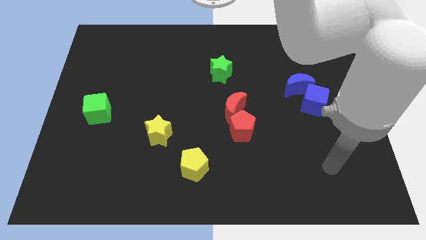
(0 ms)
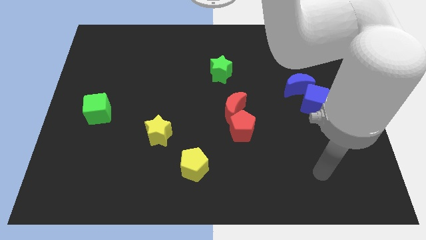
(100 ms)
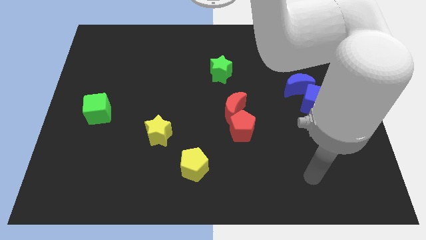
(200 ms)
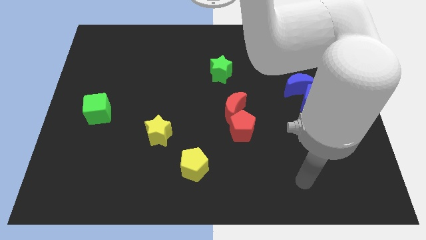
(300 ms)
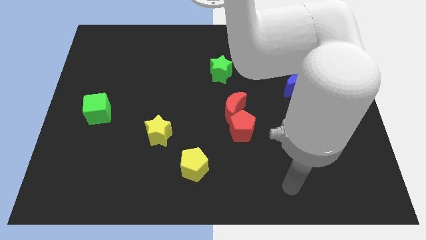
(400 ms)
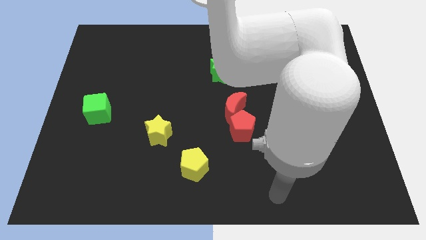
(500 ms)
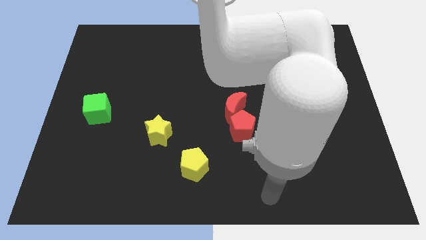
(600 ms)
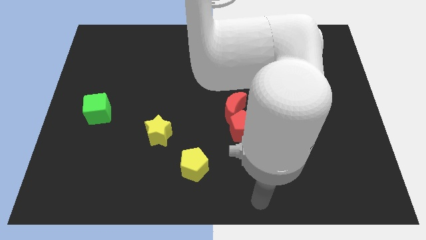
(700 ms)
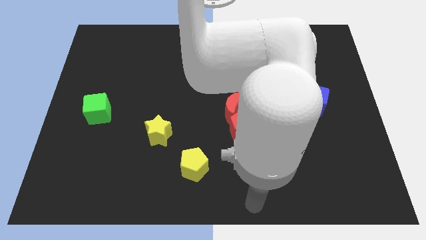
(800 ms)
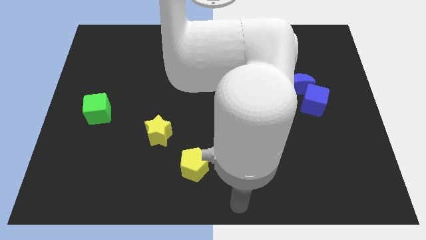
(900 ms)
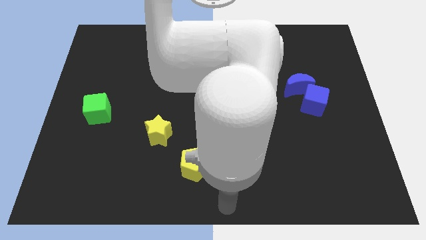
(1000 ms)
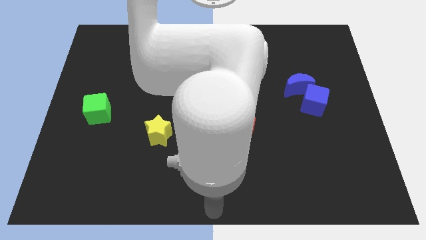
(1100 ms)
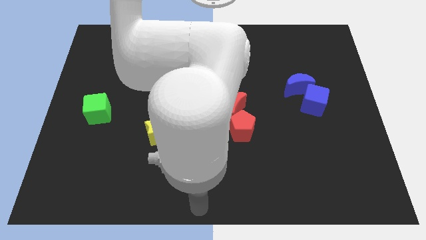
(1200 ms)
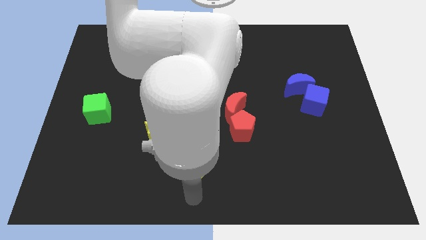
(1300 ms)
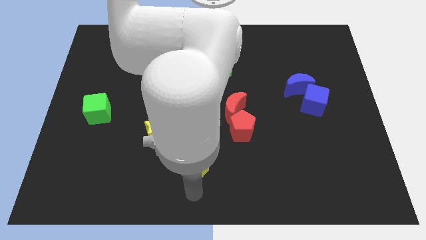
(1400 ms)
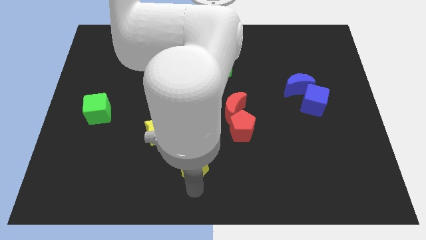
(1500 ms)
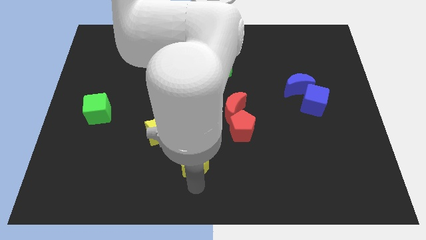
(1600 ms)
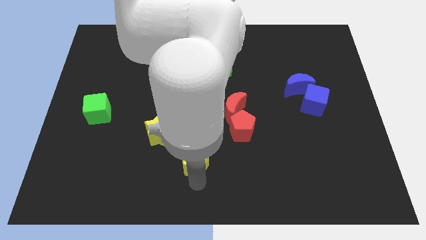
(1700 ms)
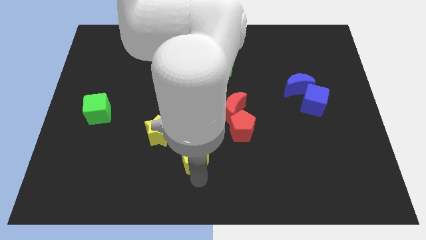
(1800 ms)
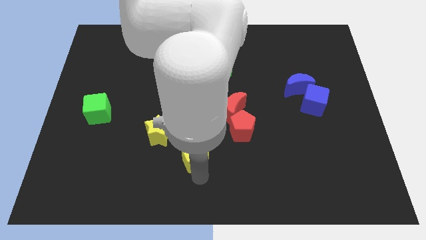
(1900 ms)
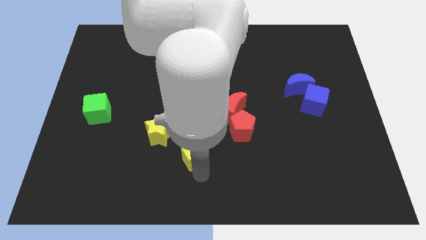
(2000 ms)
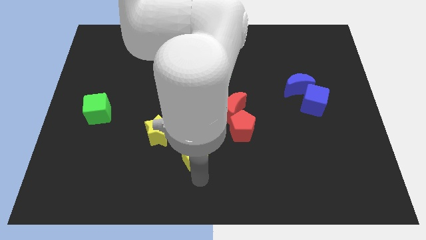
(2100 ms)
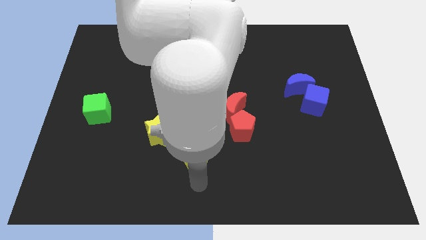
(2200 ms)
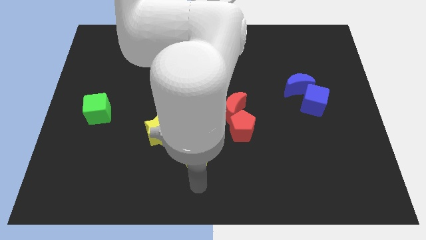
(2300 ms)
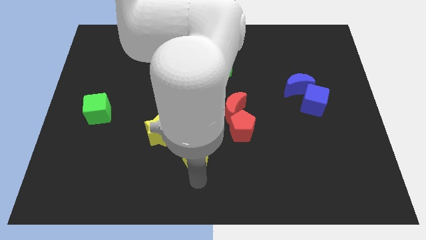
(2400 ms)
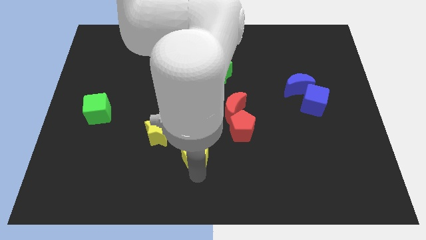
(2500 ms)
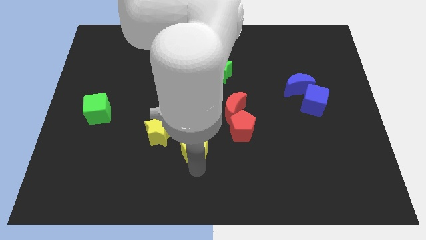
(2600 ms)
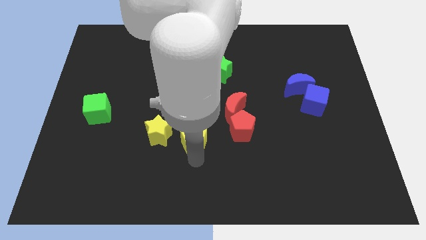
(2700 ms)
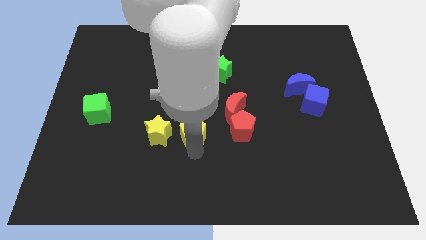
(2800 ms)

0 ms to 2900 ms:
slide the yellow pentagon a bit upwards

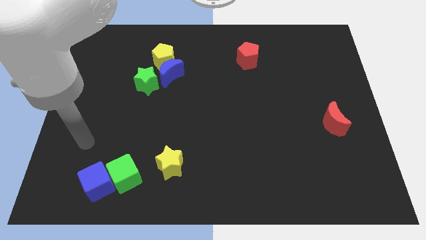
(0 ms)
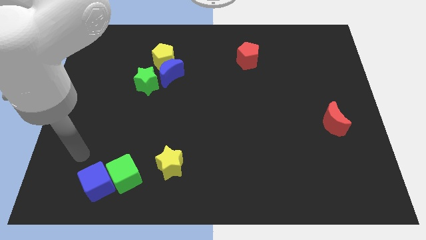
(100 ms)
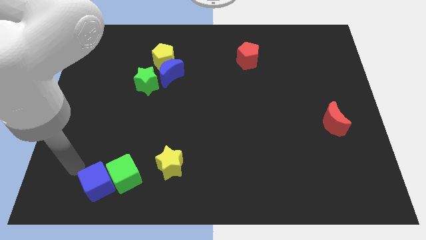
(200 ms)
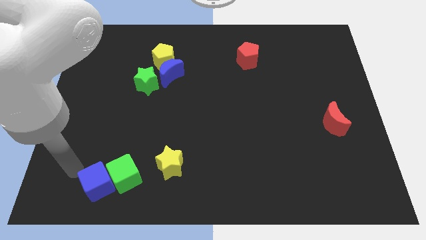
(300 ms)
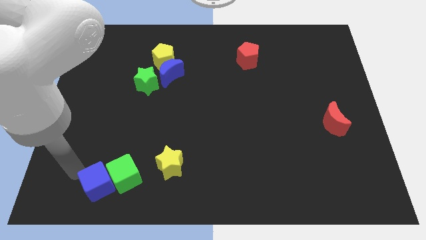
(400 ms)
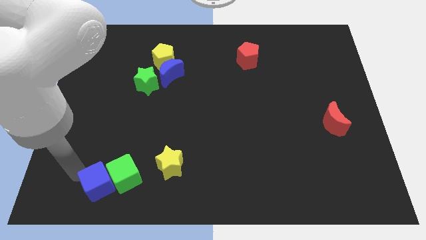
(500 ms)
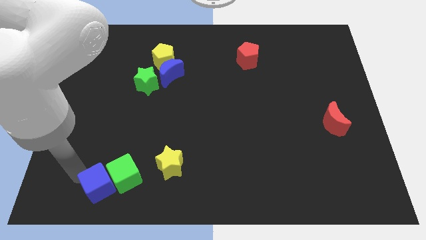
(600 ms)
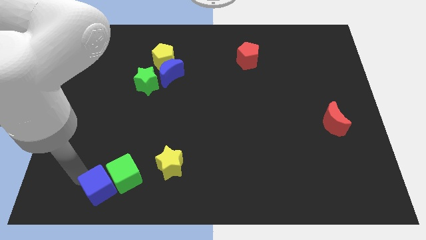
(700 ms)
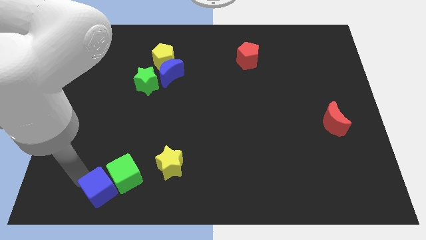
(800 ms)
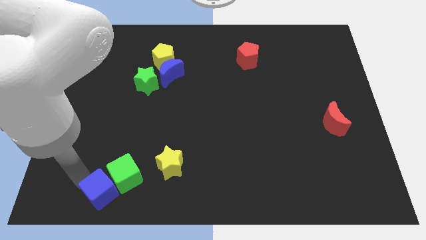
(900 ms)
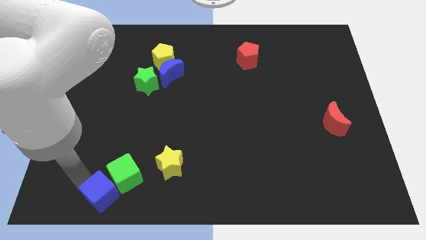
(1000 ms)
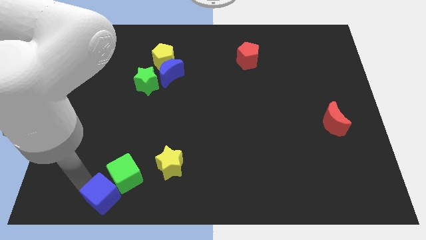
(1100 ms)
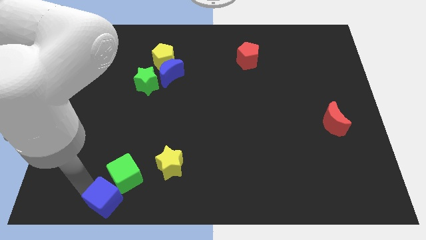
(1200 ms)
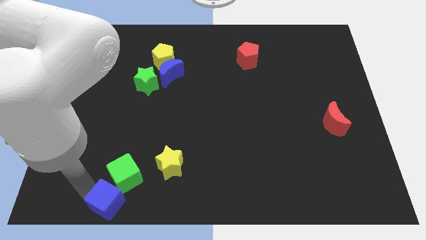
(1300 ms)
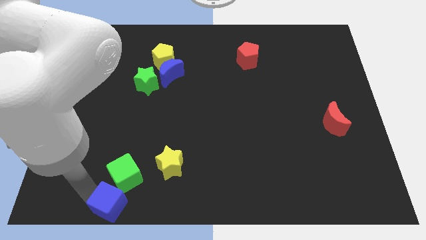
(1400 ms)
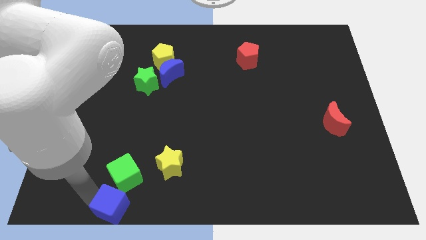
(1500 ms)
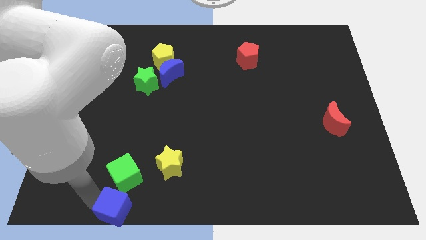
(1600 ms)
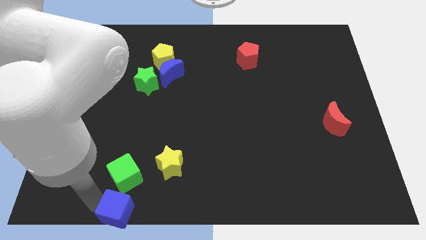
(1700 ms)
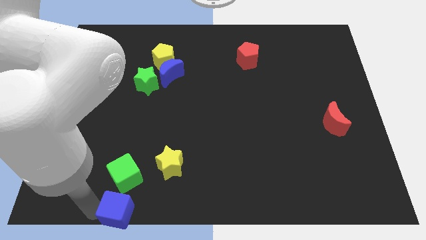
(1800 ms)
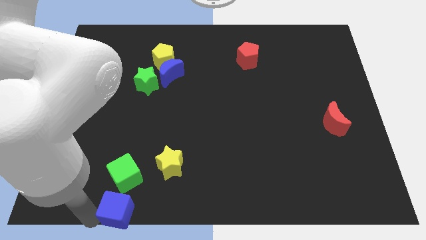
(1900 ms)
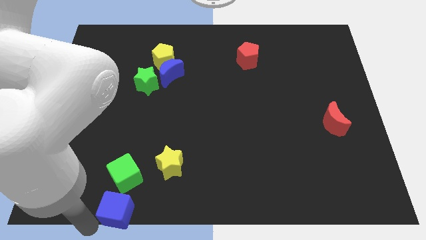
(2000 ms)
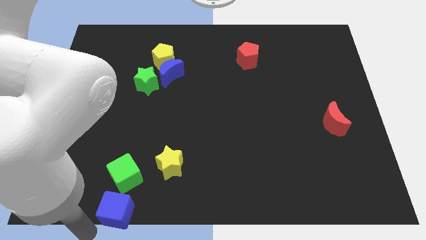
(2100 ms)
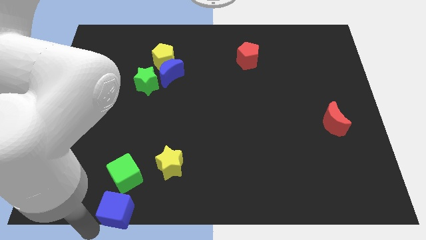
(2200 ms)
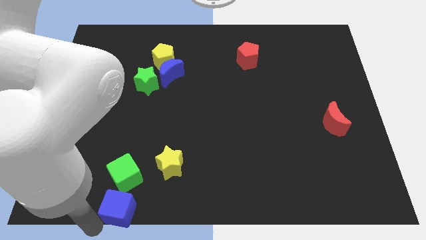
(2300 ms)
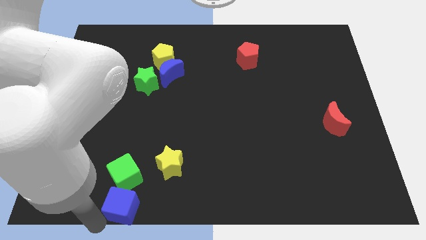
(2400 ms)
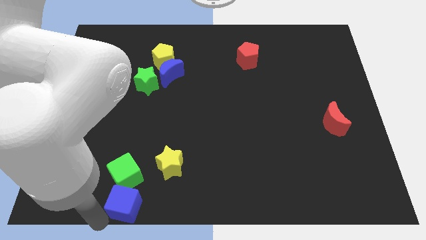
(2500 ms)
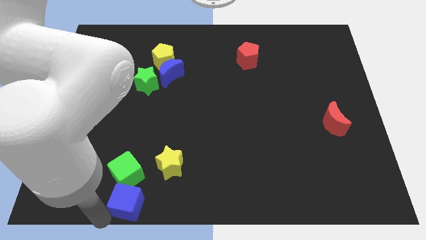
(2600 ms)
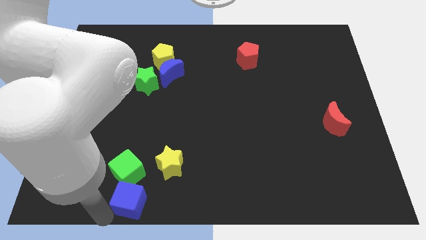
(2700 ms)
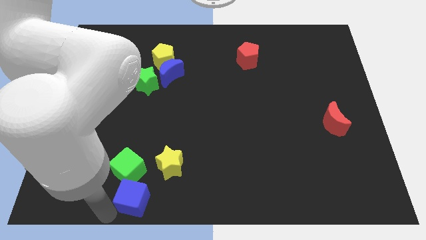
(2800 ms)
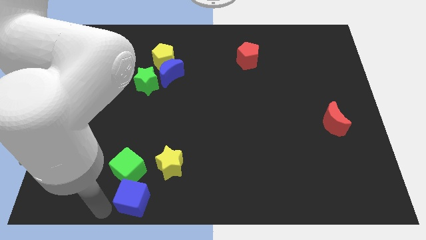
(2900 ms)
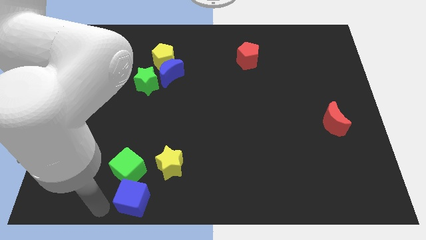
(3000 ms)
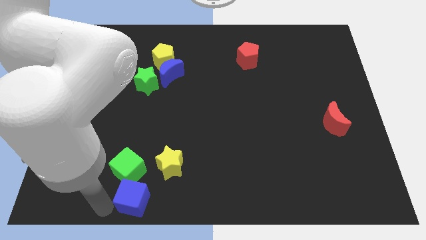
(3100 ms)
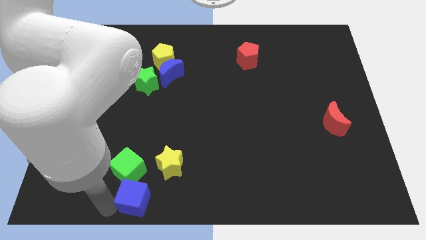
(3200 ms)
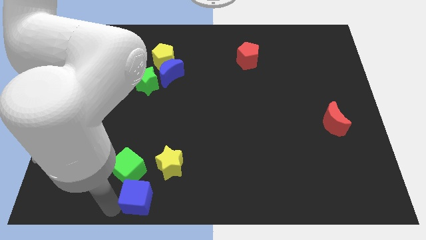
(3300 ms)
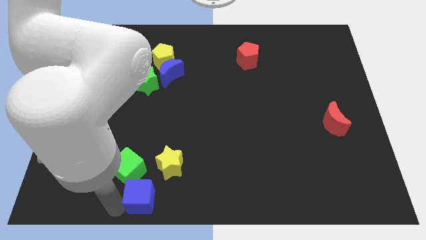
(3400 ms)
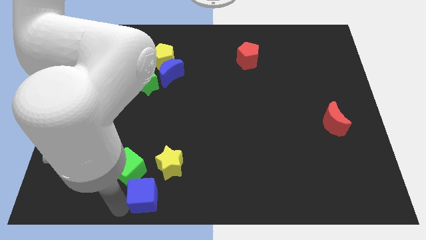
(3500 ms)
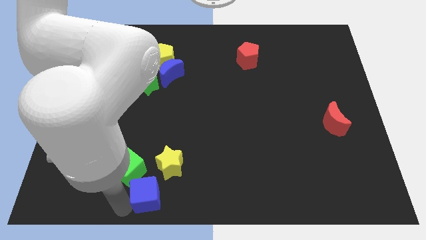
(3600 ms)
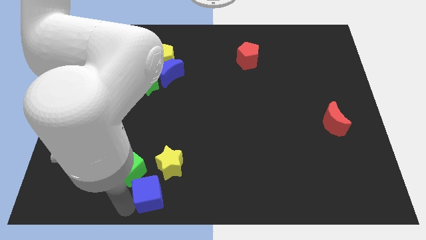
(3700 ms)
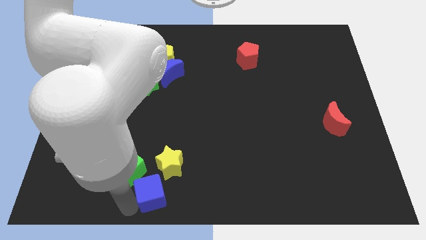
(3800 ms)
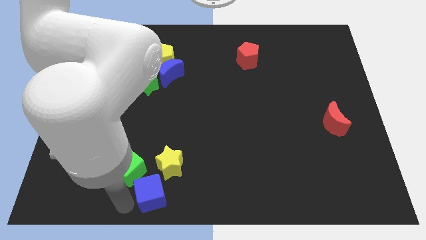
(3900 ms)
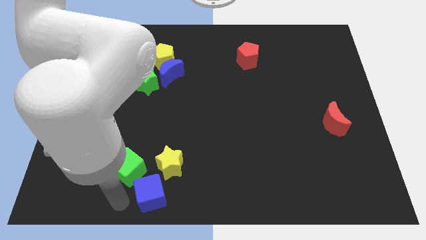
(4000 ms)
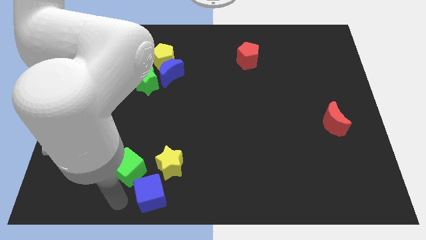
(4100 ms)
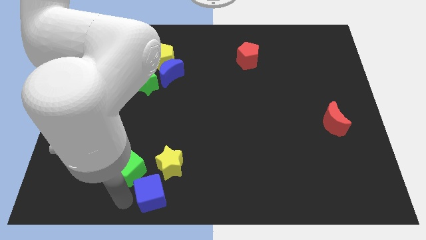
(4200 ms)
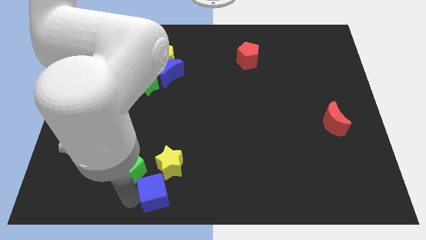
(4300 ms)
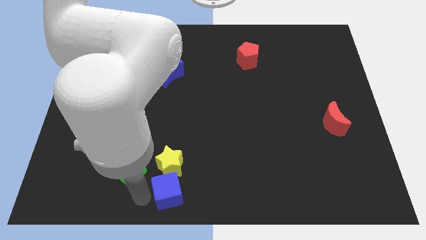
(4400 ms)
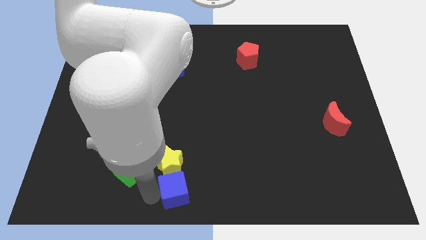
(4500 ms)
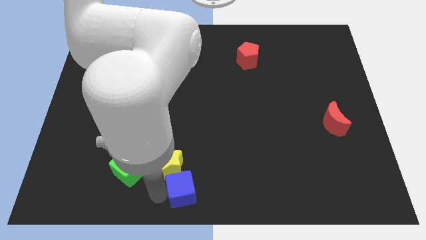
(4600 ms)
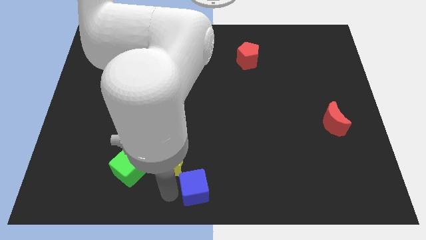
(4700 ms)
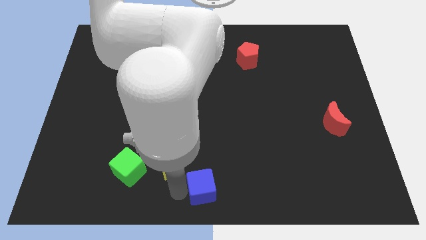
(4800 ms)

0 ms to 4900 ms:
slide the blue cube to the right

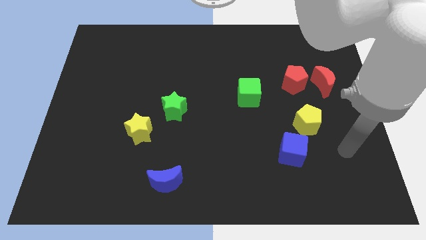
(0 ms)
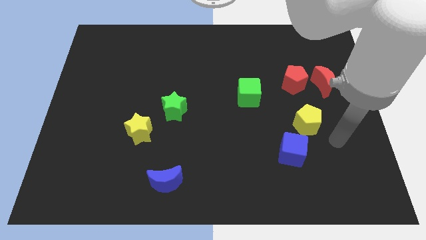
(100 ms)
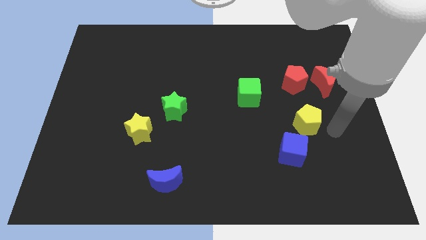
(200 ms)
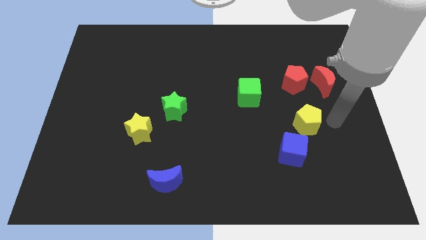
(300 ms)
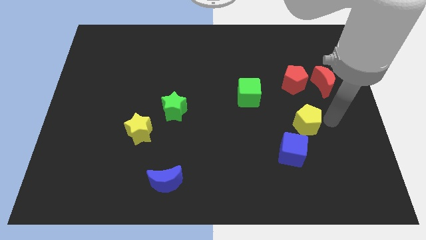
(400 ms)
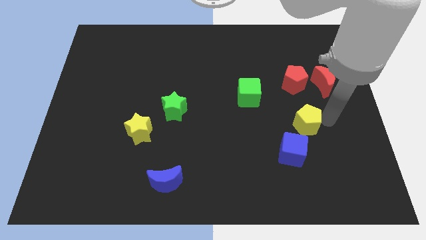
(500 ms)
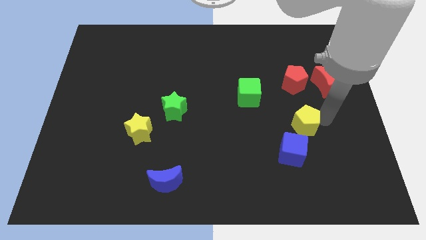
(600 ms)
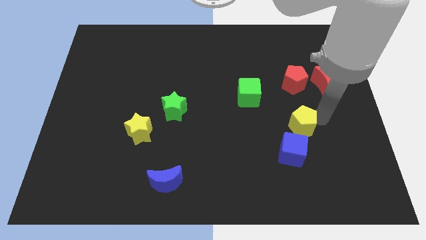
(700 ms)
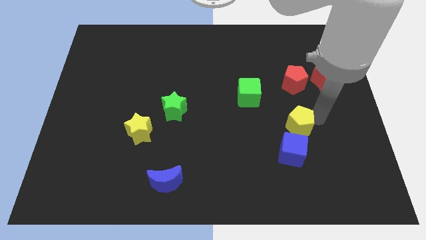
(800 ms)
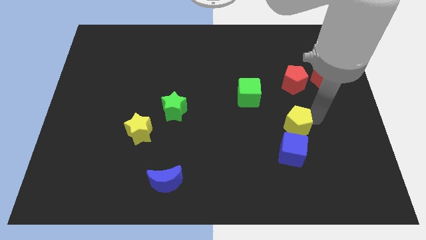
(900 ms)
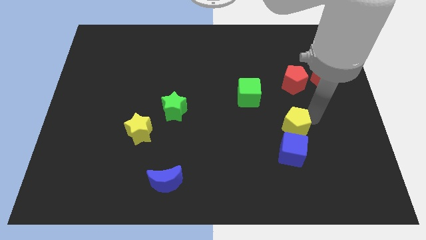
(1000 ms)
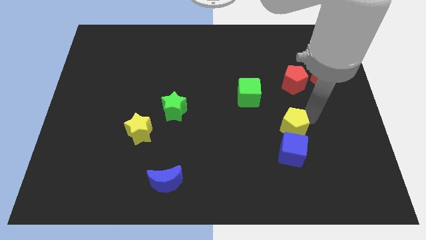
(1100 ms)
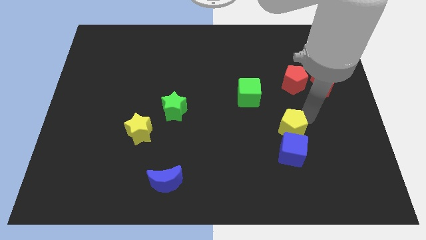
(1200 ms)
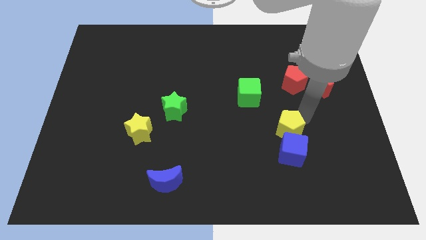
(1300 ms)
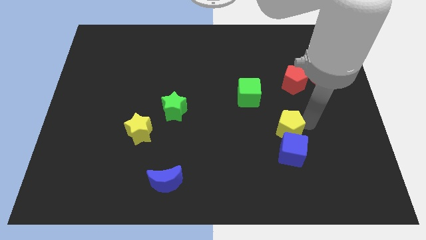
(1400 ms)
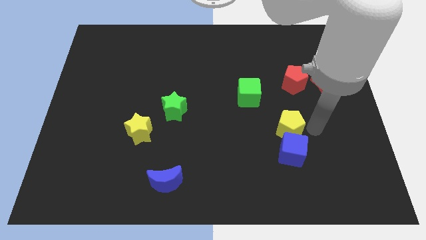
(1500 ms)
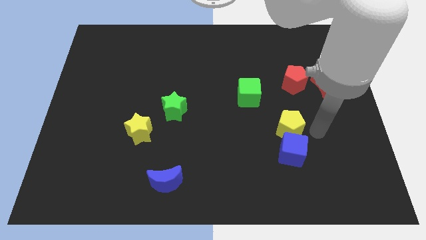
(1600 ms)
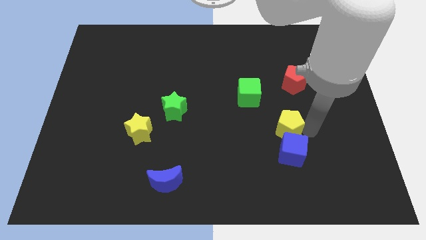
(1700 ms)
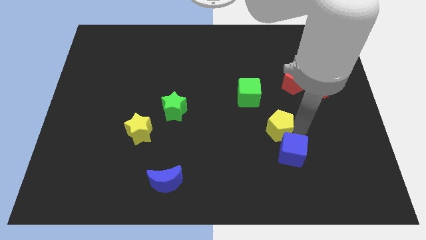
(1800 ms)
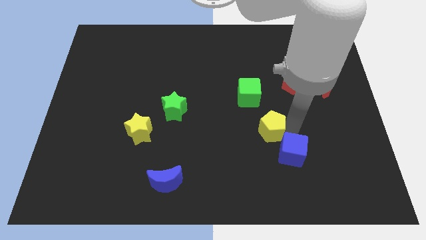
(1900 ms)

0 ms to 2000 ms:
move the yellow pentagon left a bit
